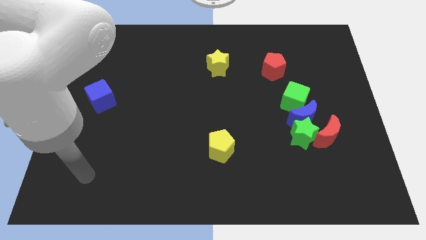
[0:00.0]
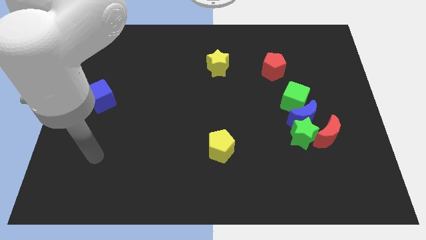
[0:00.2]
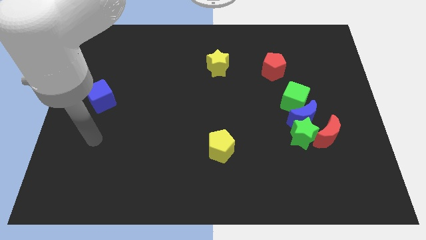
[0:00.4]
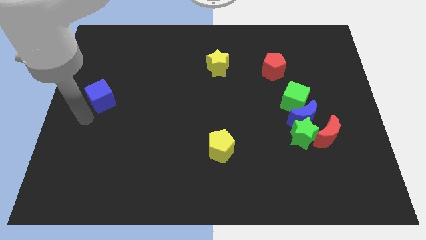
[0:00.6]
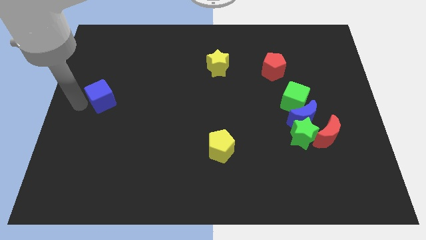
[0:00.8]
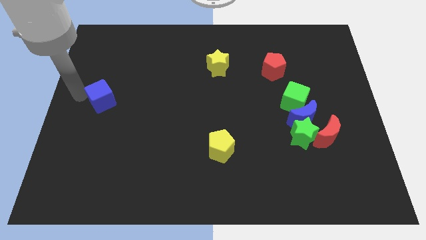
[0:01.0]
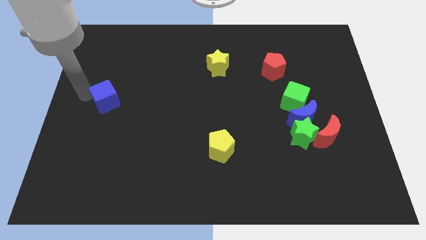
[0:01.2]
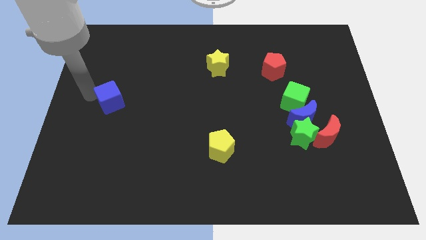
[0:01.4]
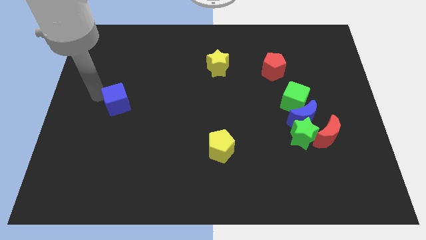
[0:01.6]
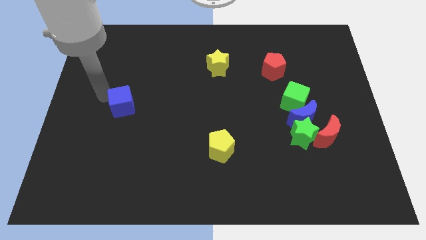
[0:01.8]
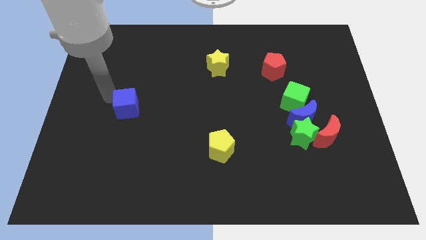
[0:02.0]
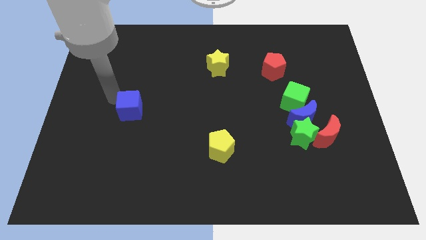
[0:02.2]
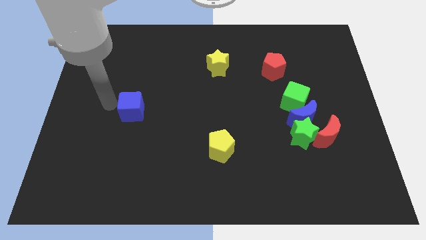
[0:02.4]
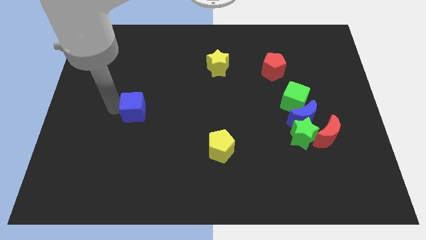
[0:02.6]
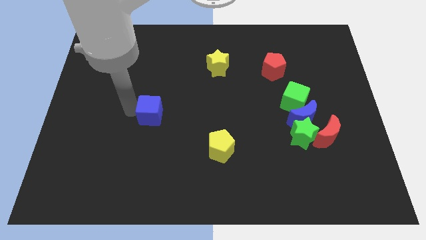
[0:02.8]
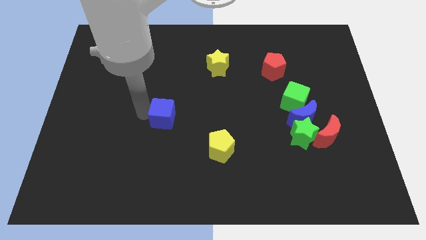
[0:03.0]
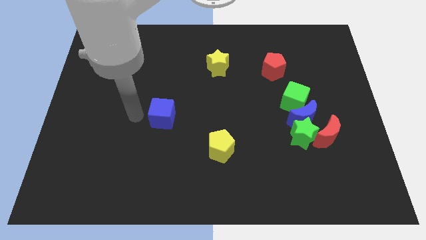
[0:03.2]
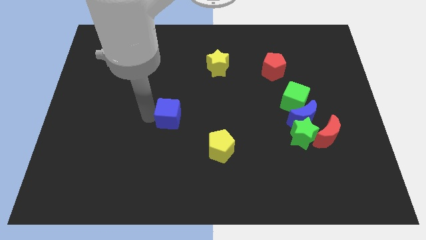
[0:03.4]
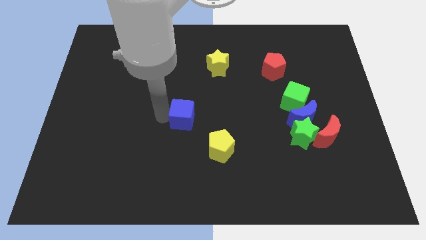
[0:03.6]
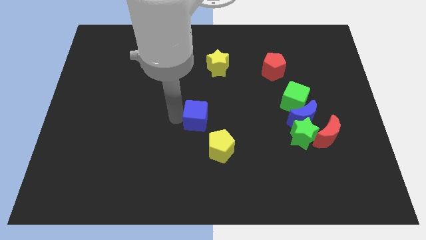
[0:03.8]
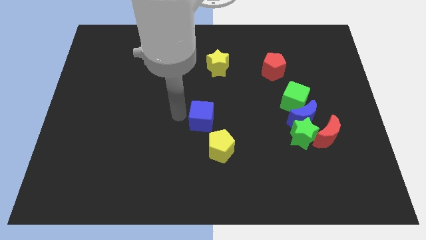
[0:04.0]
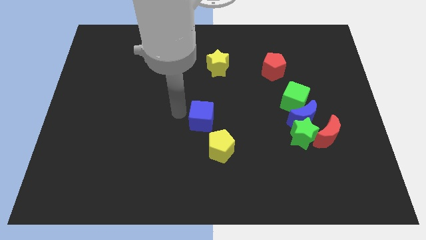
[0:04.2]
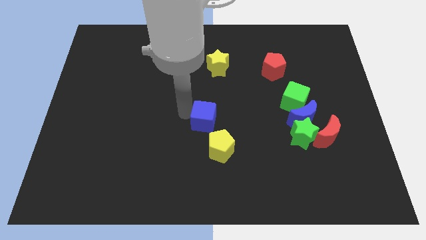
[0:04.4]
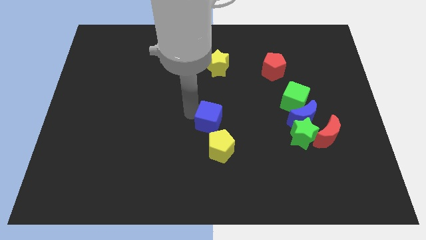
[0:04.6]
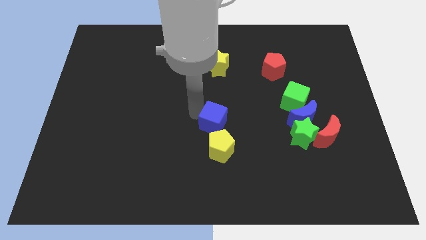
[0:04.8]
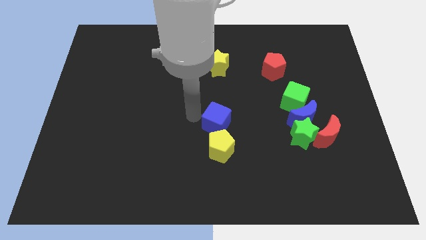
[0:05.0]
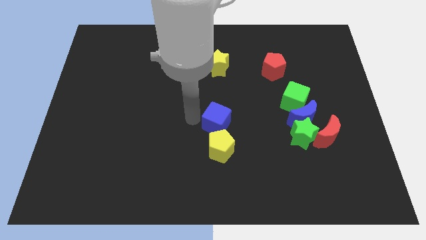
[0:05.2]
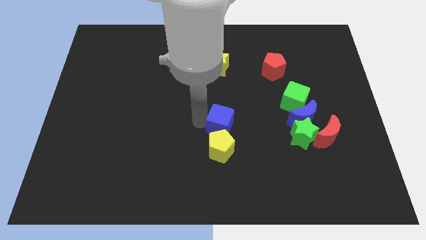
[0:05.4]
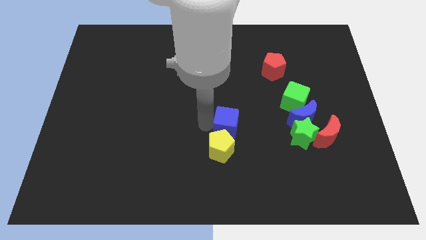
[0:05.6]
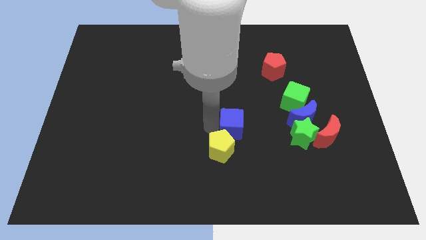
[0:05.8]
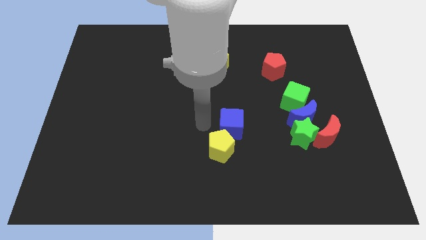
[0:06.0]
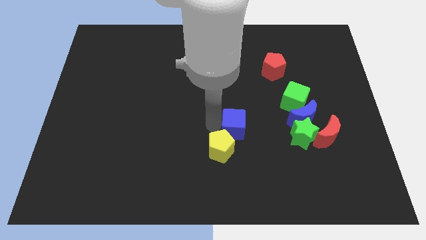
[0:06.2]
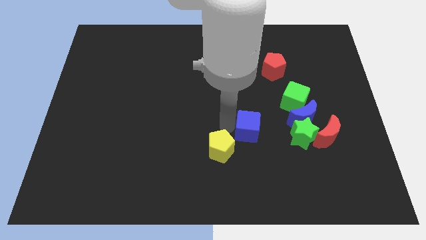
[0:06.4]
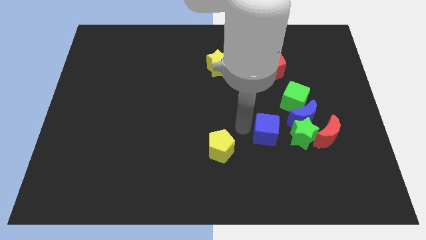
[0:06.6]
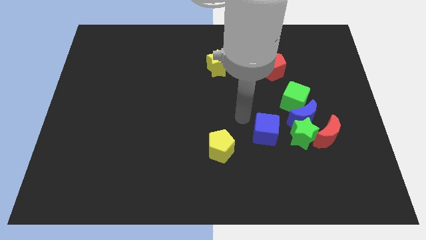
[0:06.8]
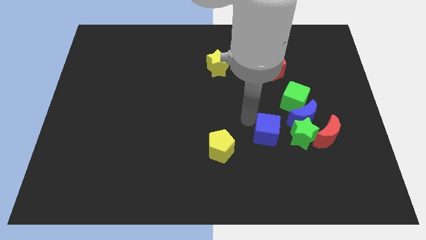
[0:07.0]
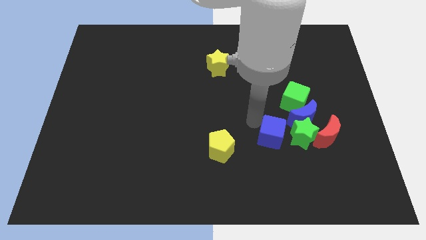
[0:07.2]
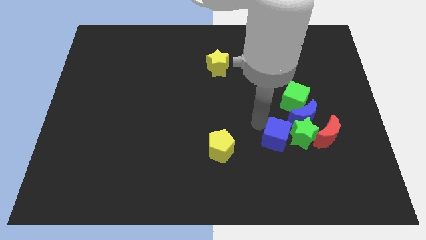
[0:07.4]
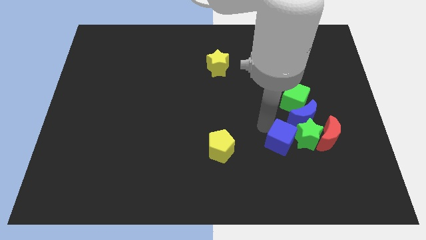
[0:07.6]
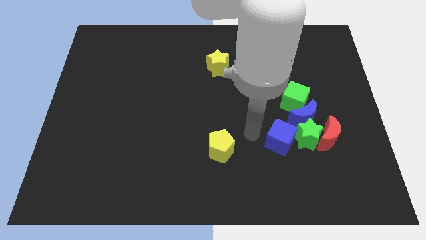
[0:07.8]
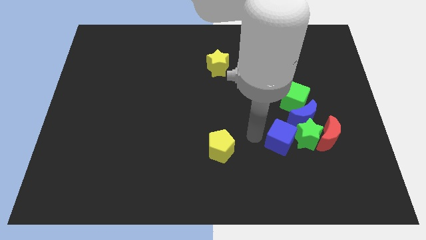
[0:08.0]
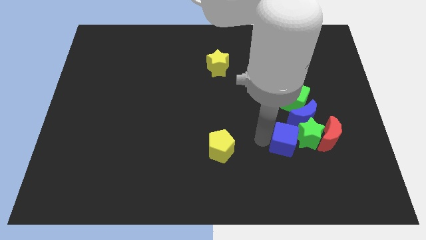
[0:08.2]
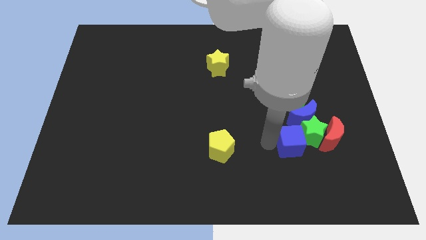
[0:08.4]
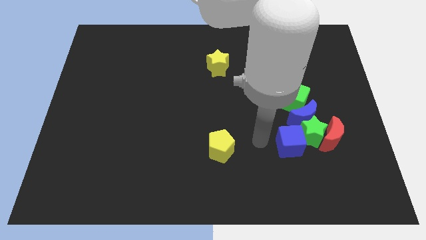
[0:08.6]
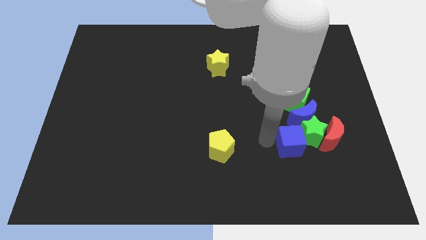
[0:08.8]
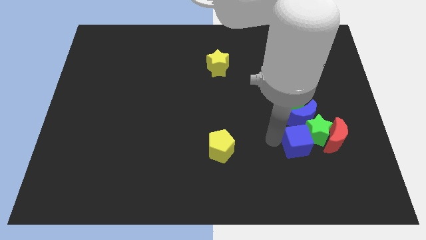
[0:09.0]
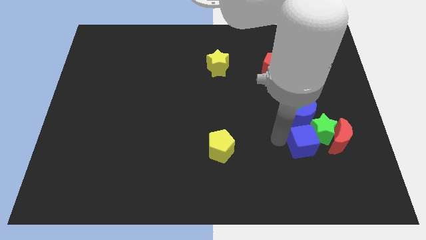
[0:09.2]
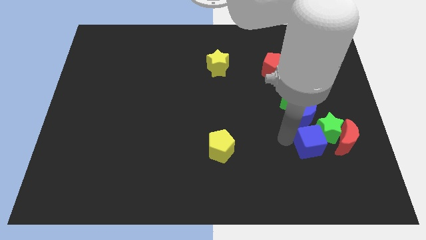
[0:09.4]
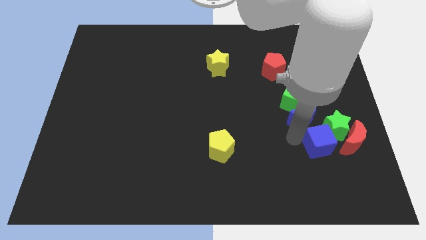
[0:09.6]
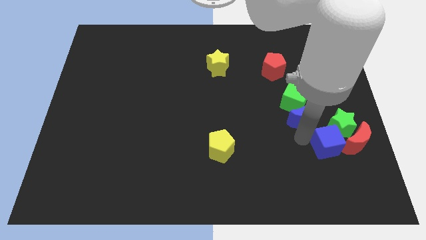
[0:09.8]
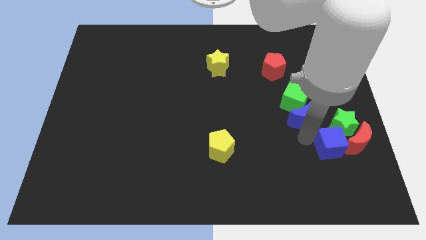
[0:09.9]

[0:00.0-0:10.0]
slide the blue cube close to the red moon

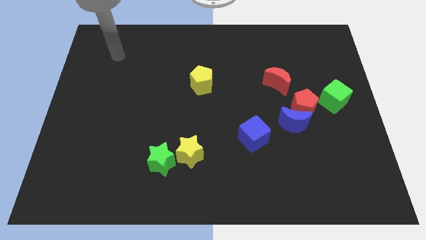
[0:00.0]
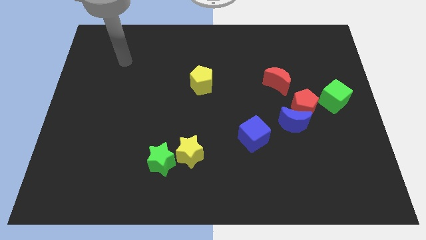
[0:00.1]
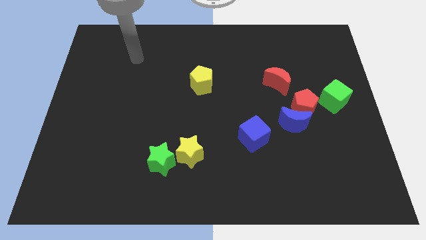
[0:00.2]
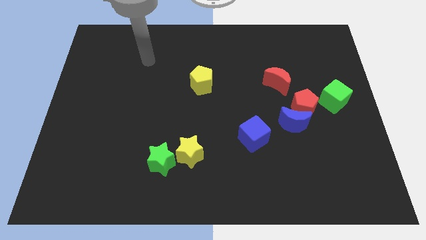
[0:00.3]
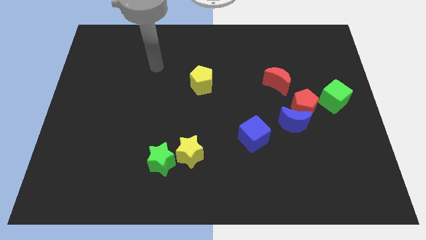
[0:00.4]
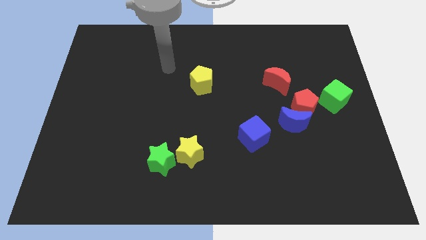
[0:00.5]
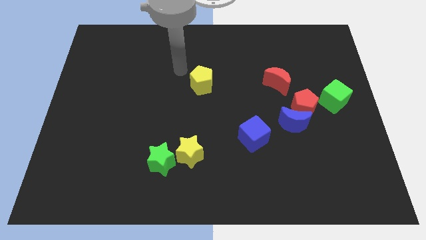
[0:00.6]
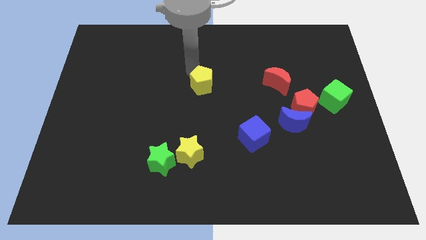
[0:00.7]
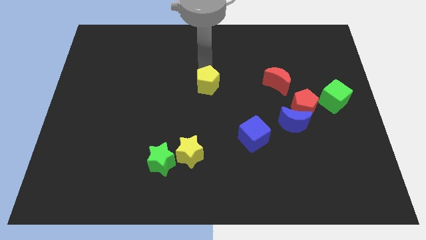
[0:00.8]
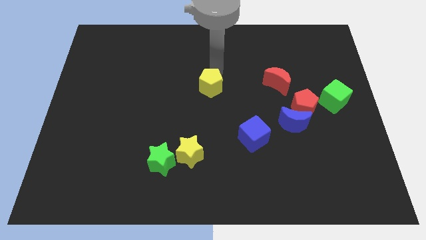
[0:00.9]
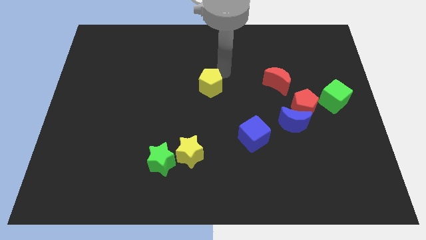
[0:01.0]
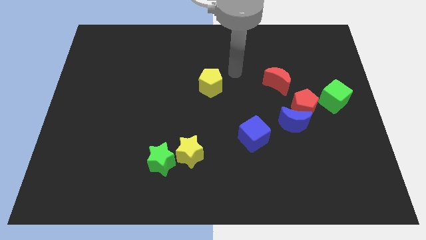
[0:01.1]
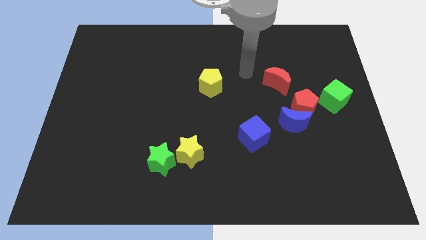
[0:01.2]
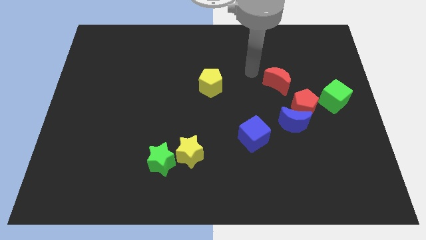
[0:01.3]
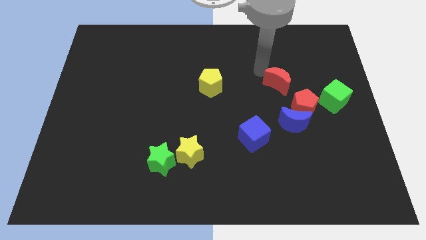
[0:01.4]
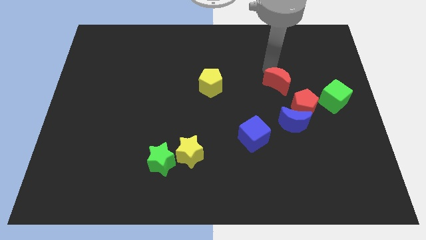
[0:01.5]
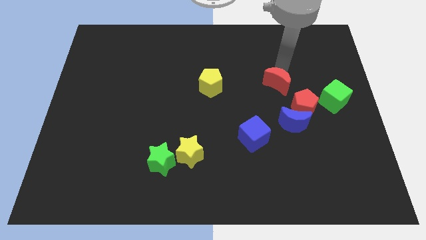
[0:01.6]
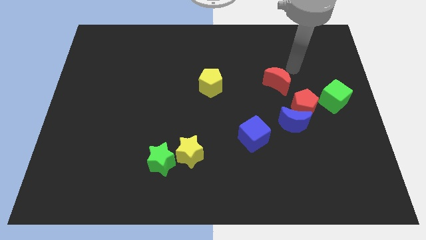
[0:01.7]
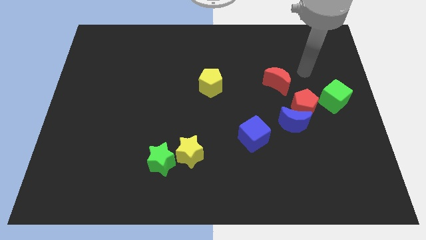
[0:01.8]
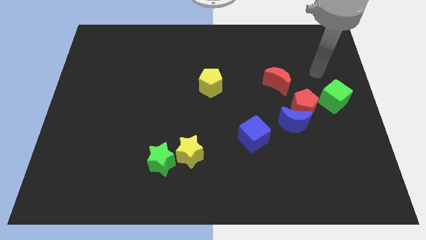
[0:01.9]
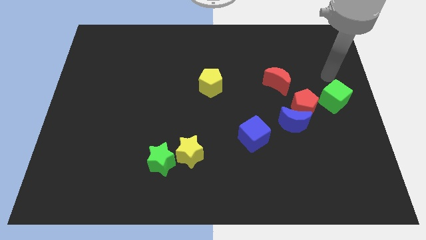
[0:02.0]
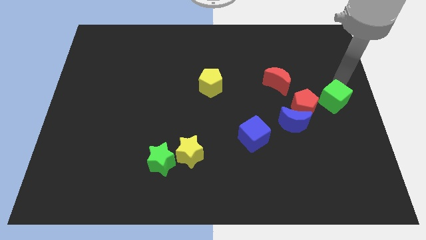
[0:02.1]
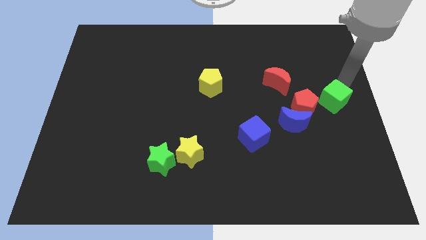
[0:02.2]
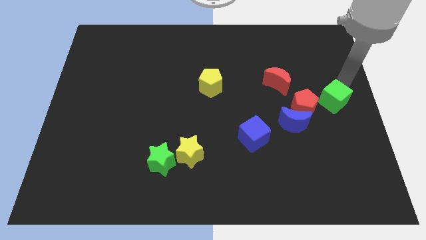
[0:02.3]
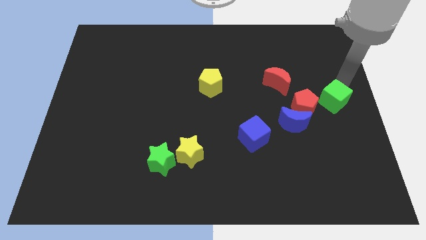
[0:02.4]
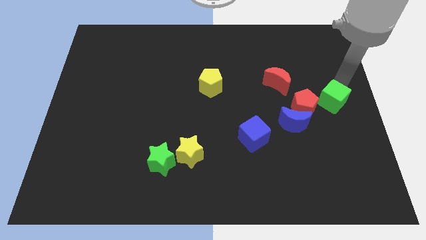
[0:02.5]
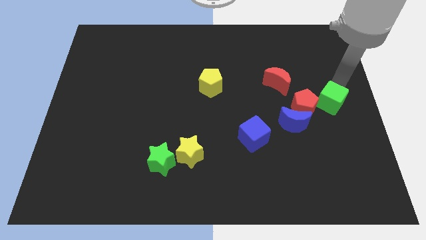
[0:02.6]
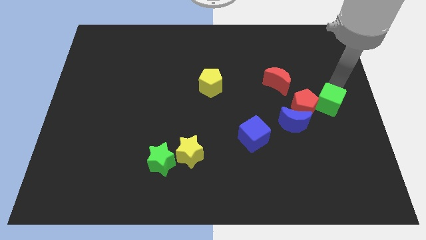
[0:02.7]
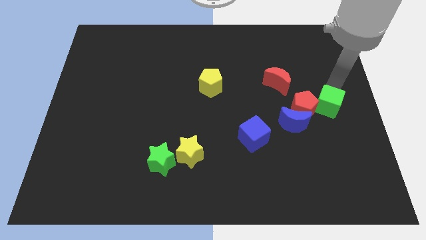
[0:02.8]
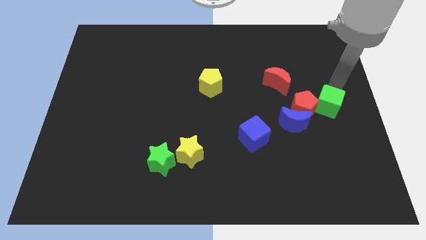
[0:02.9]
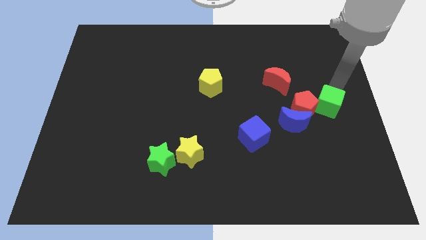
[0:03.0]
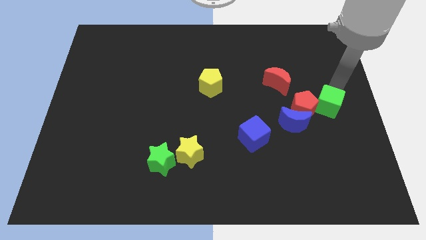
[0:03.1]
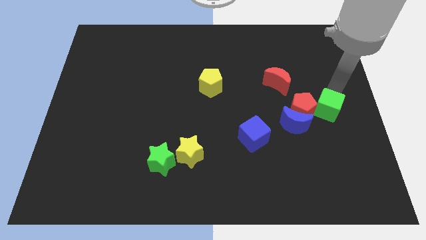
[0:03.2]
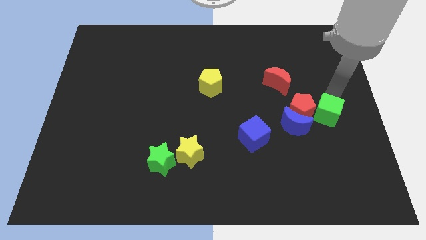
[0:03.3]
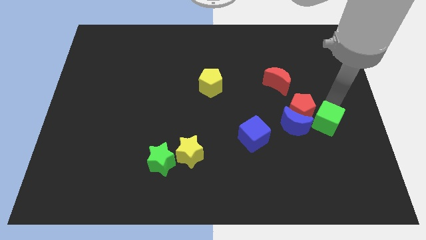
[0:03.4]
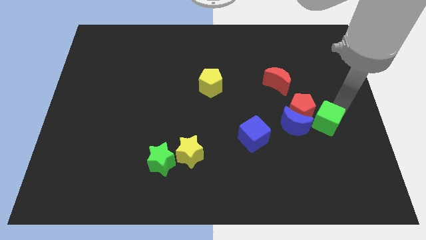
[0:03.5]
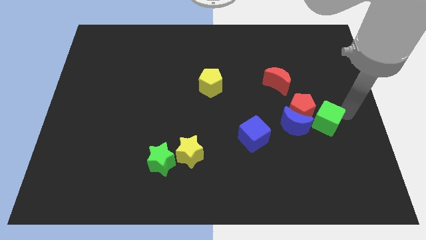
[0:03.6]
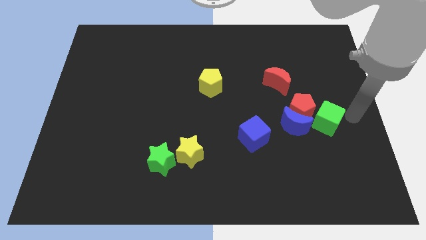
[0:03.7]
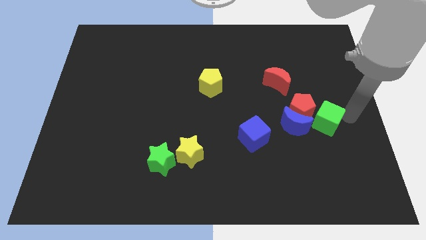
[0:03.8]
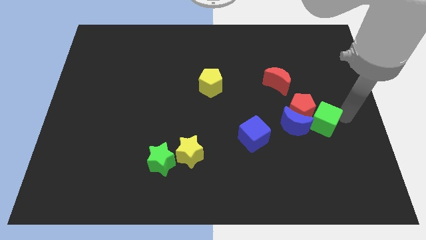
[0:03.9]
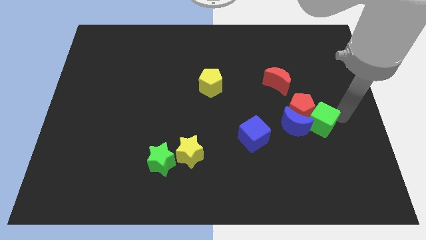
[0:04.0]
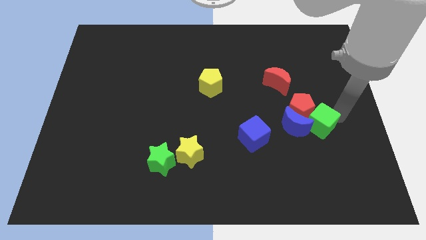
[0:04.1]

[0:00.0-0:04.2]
push the green cube towards the blue moon
